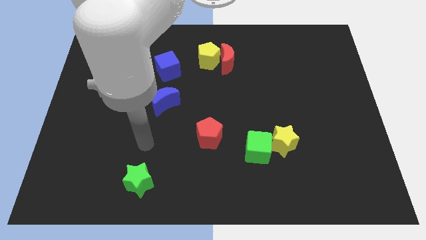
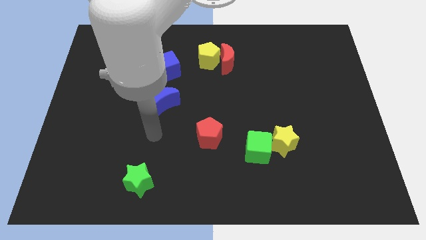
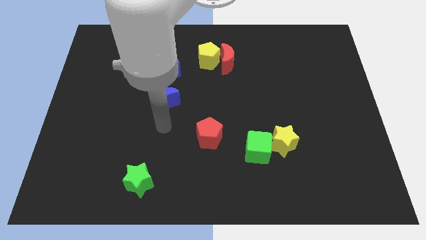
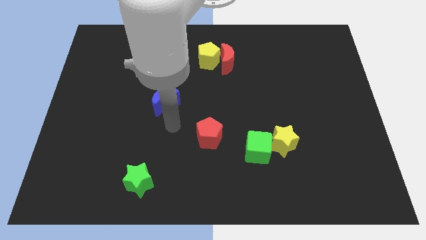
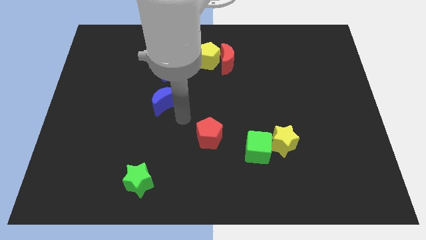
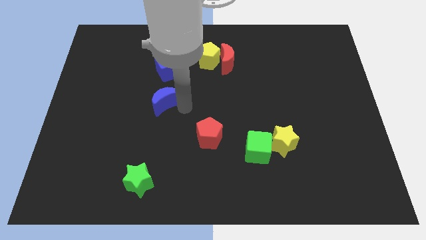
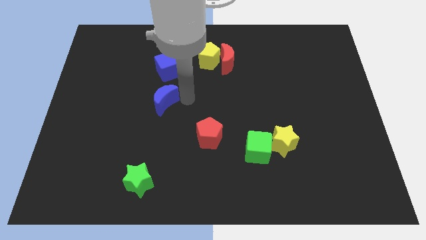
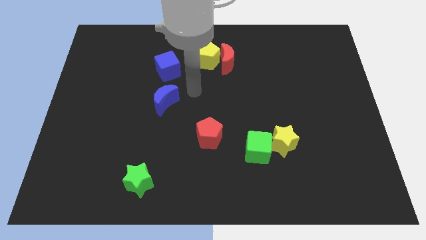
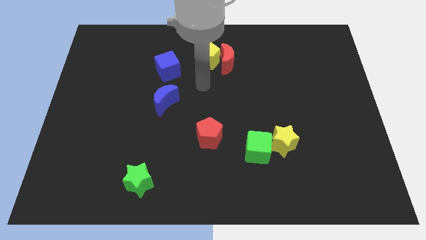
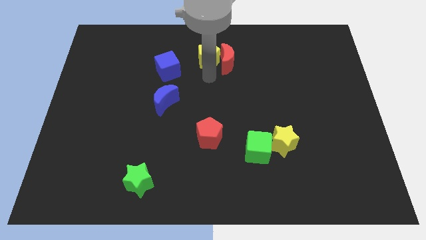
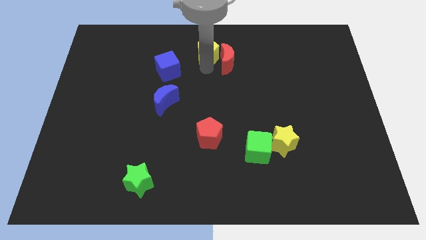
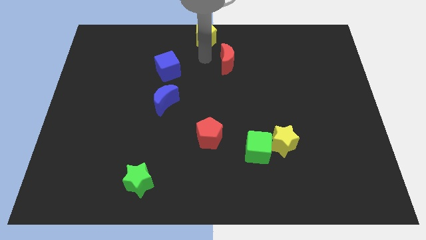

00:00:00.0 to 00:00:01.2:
move the red moon away from the yellow pentagon

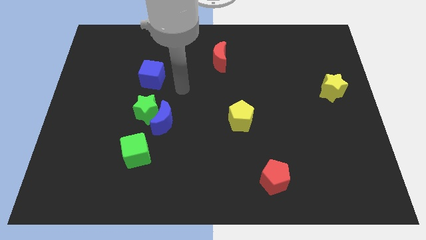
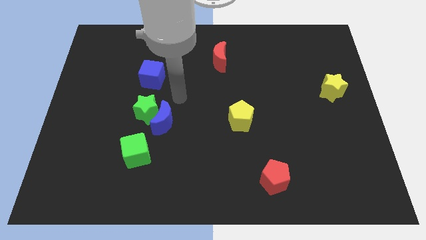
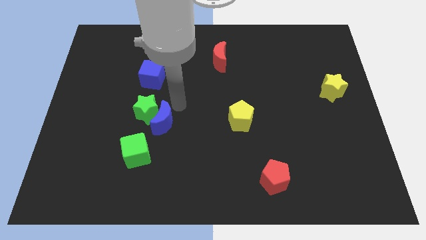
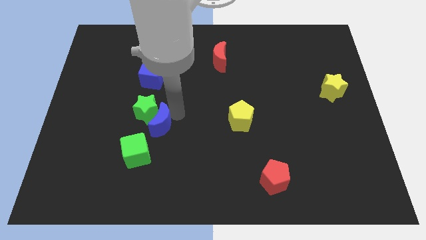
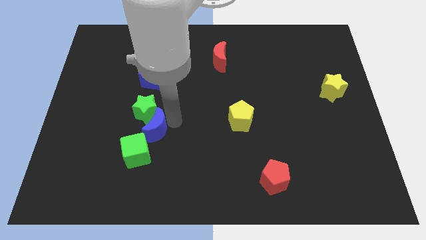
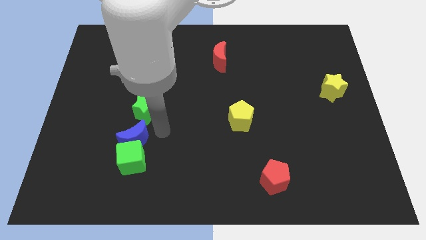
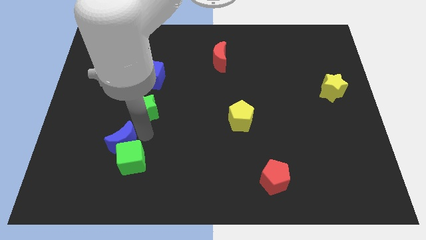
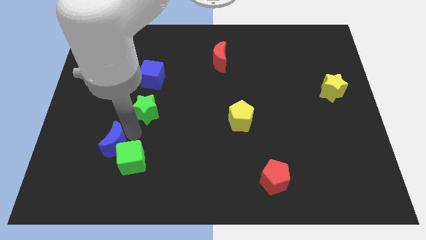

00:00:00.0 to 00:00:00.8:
pull the green star apart from the blue moon

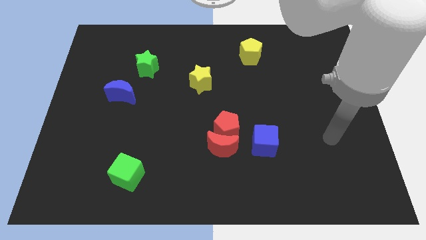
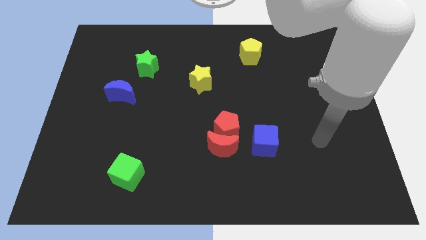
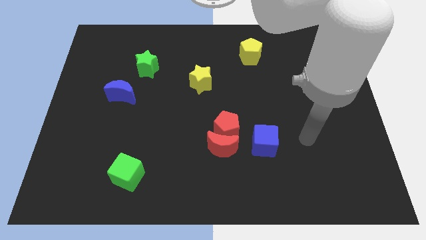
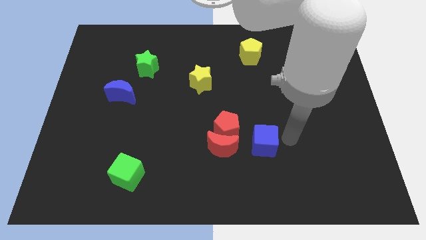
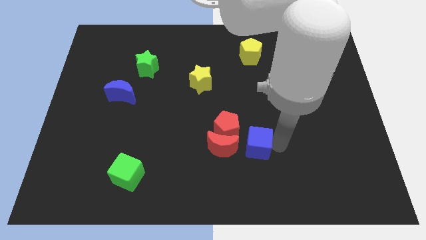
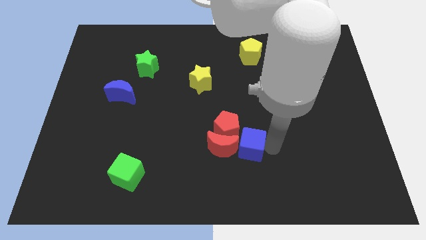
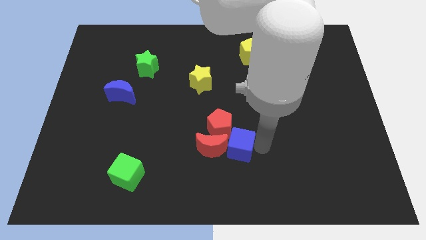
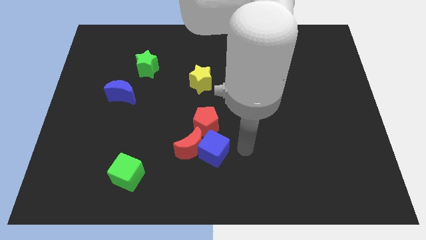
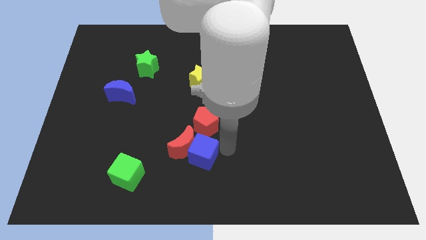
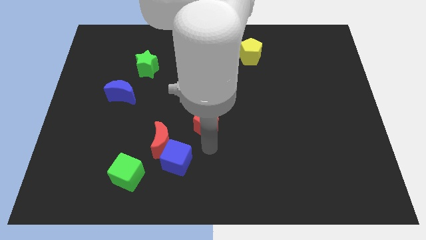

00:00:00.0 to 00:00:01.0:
move the red pentagon away from the red moon and blue cube

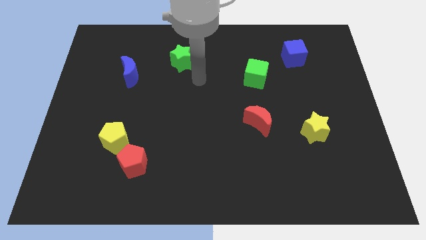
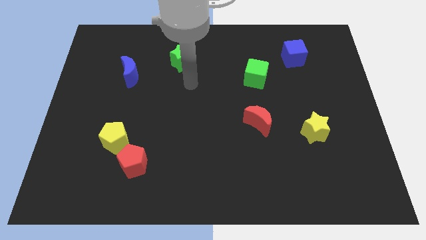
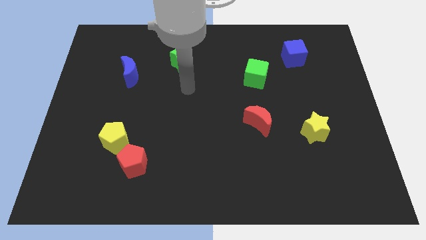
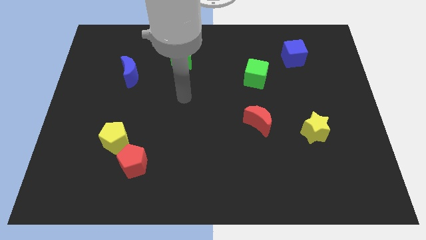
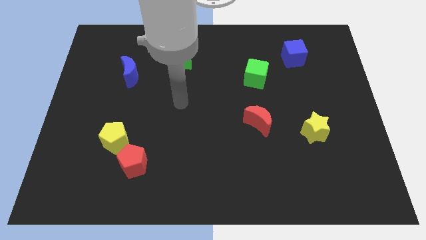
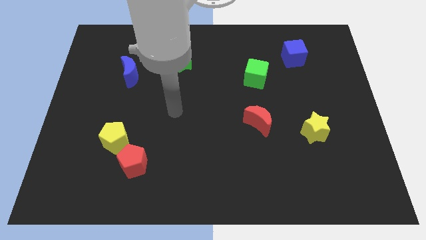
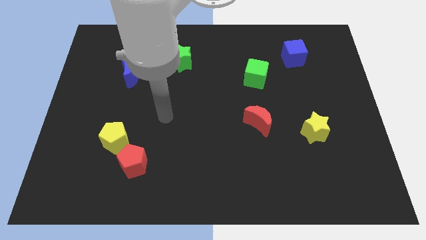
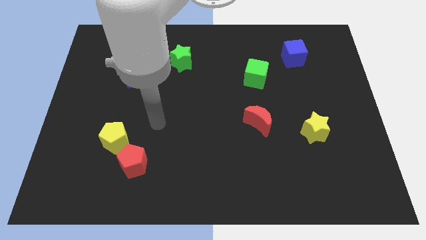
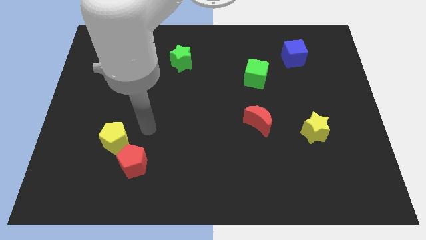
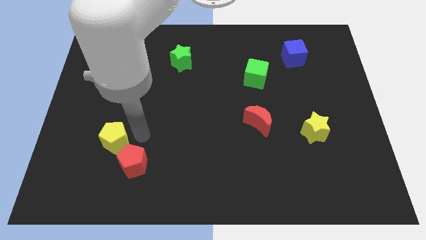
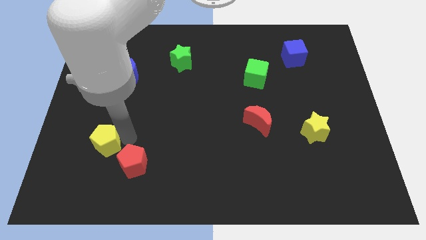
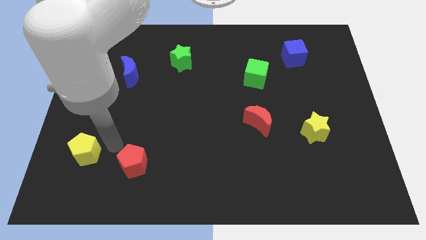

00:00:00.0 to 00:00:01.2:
move the red pentagon away from the yellow pentagon

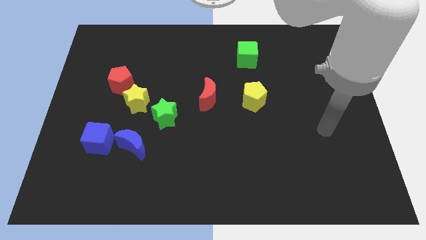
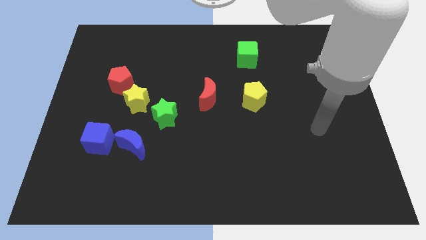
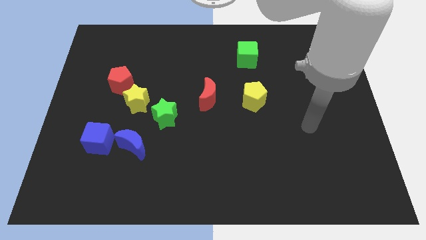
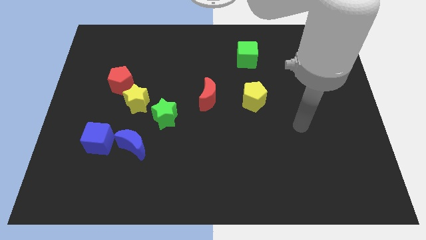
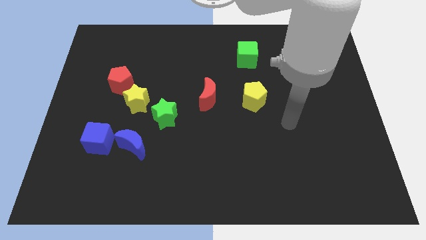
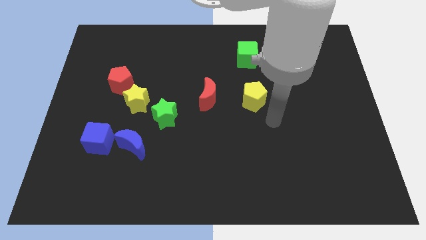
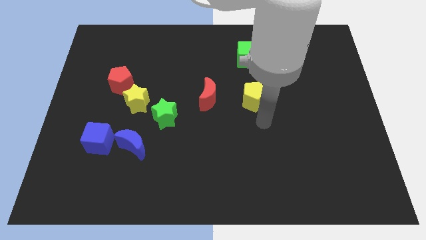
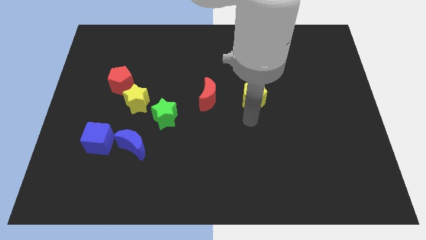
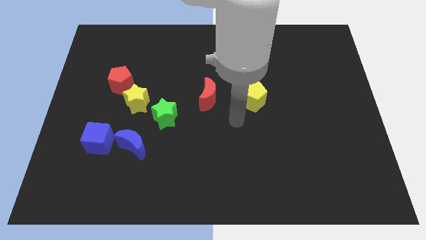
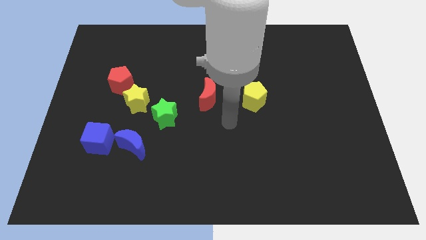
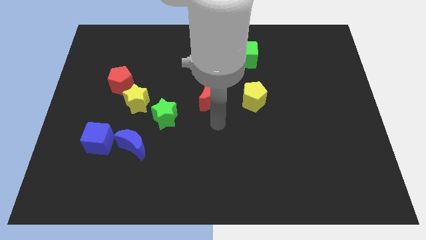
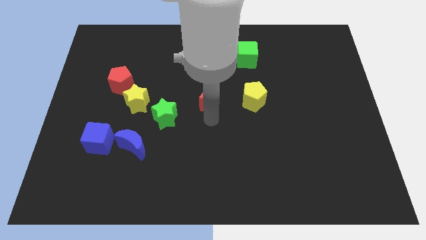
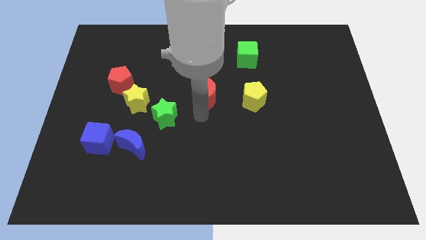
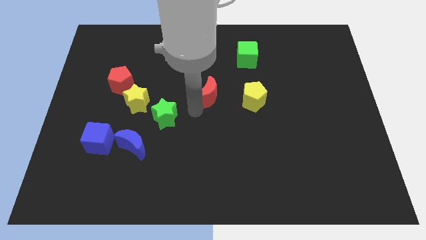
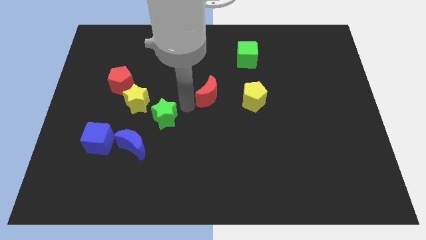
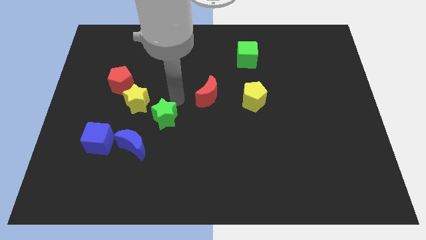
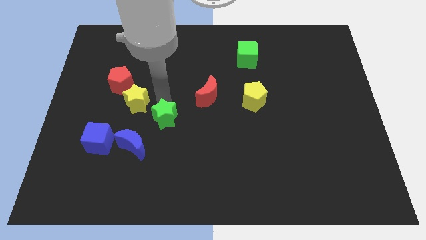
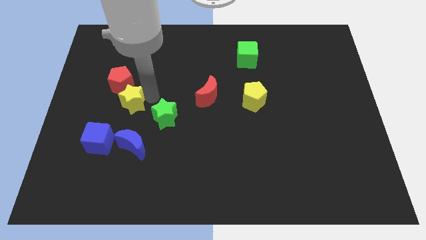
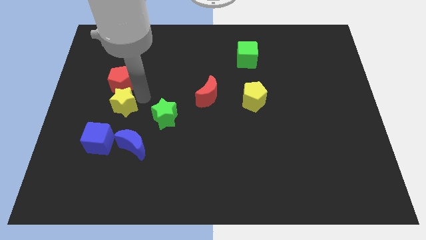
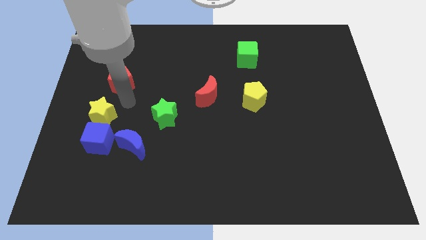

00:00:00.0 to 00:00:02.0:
move the red pentagon away from the yellow star

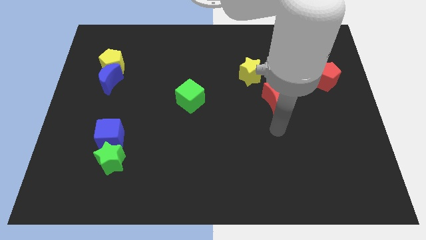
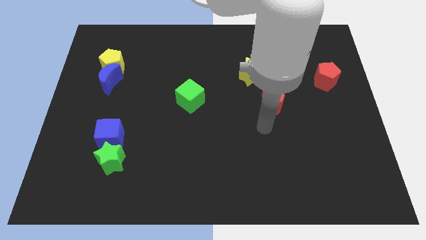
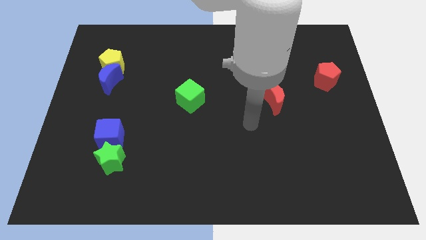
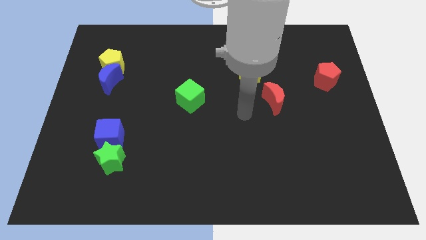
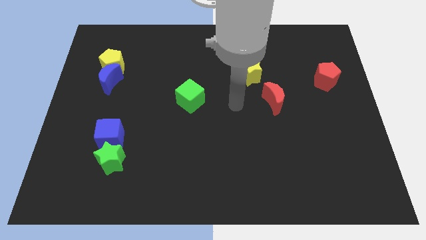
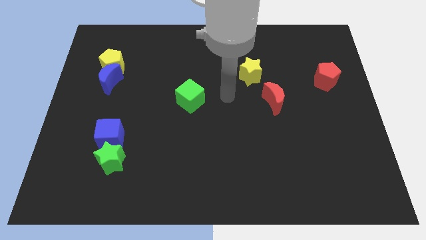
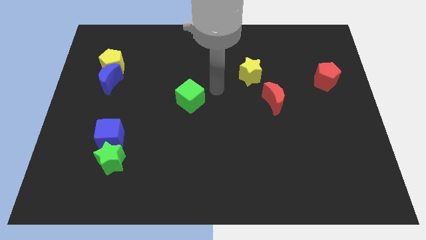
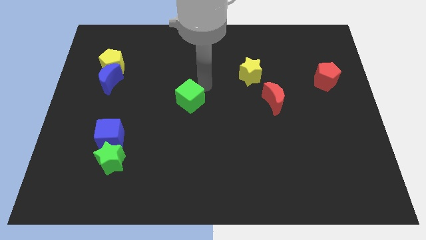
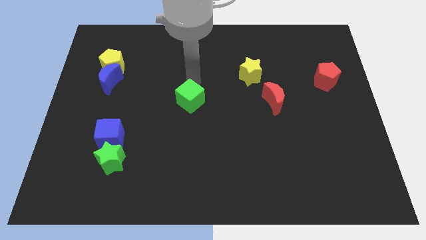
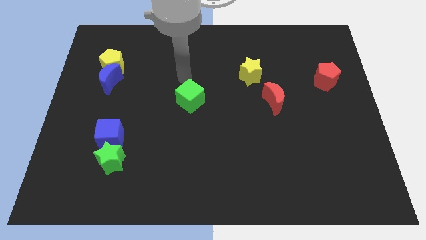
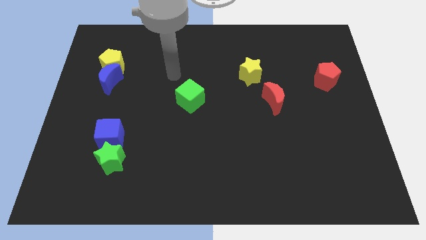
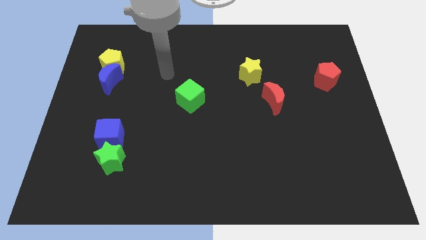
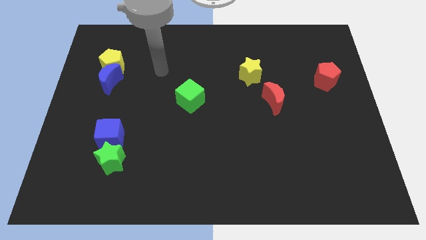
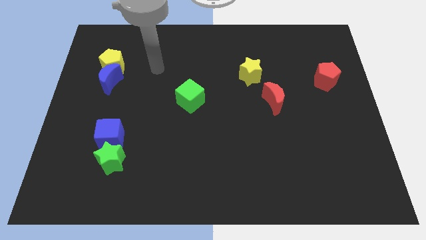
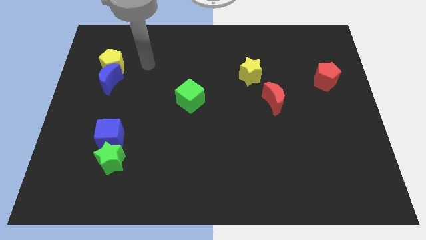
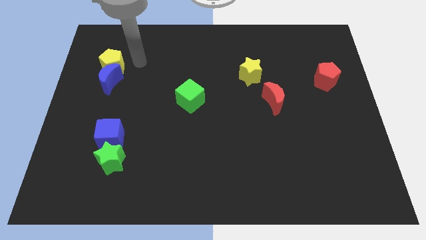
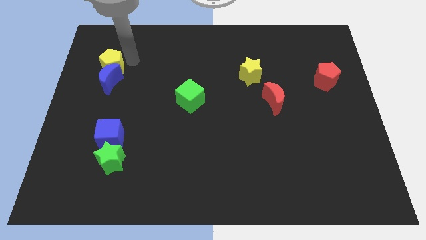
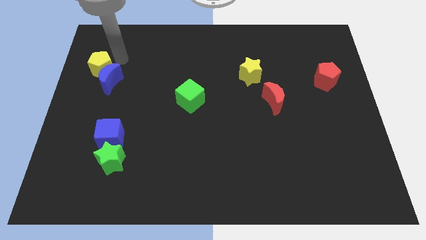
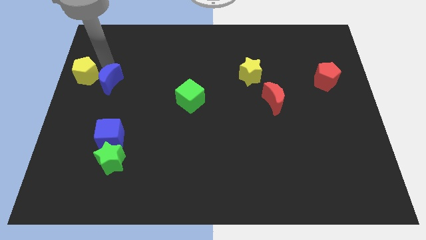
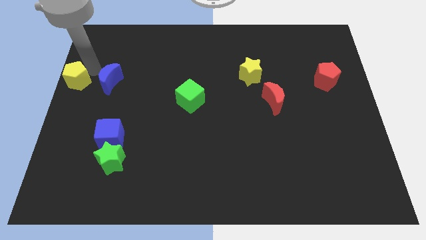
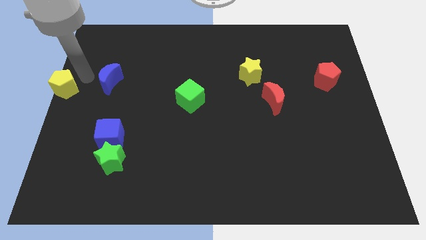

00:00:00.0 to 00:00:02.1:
separate the blue moon from the yellow pentagon

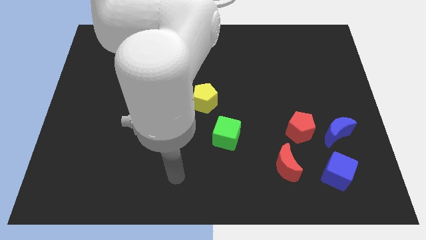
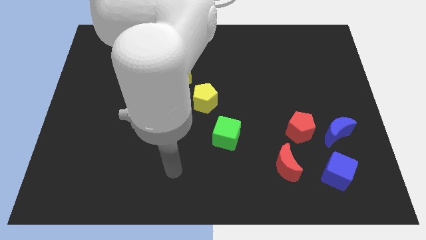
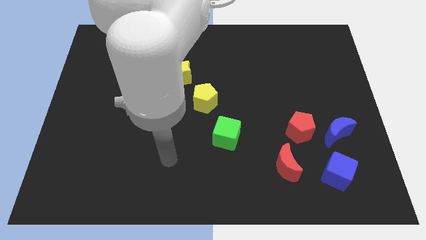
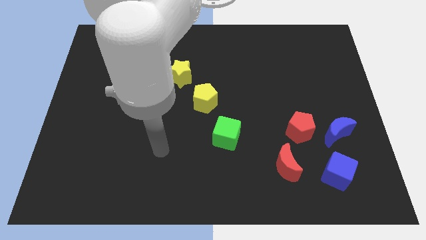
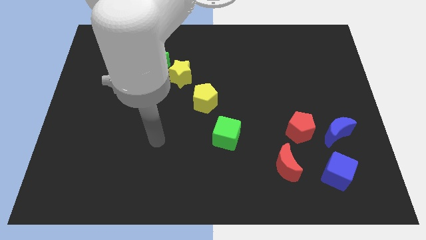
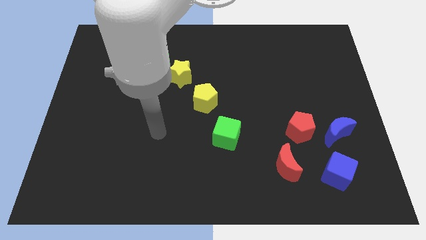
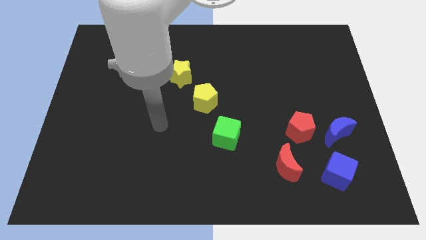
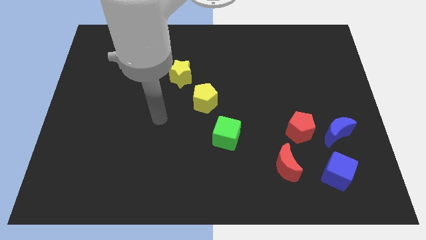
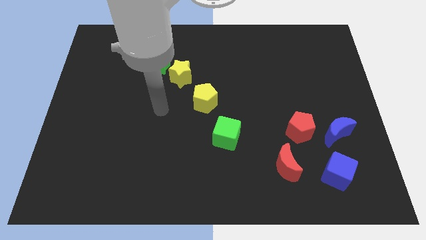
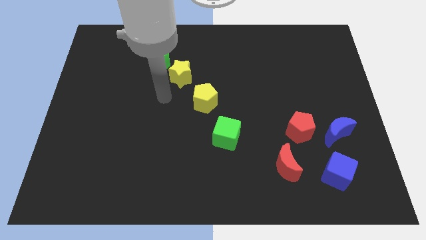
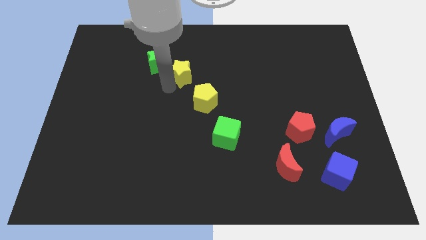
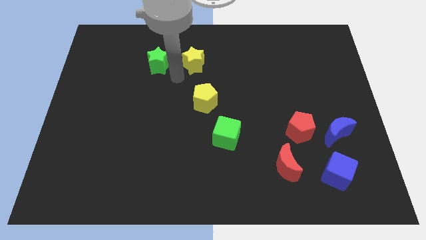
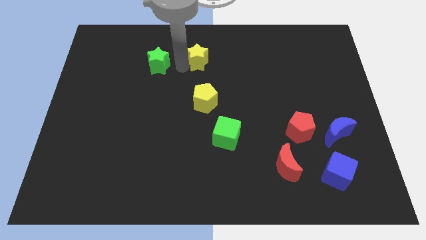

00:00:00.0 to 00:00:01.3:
move the green star away from the yellow star
